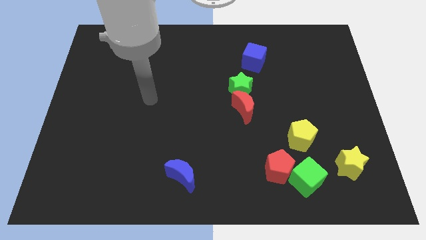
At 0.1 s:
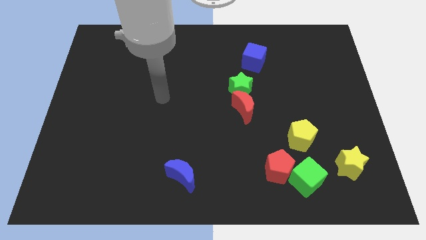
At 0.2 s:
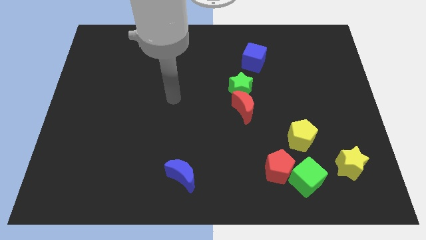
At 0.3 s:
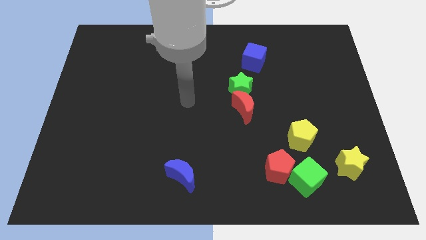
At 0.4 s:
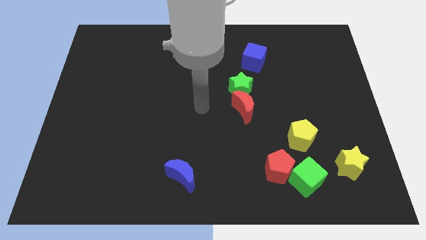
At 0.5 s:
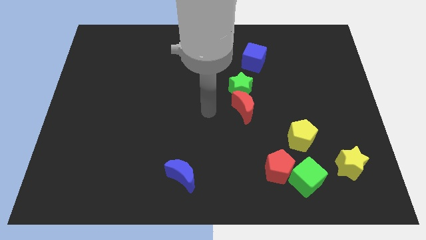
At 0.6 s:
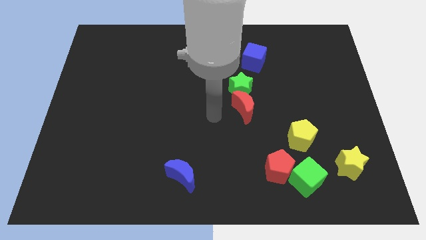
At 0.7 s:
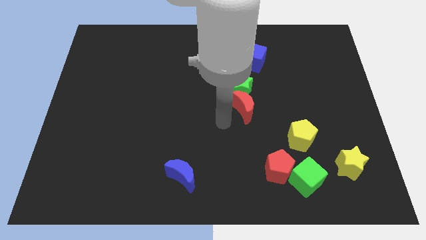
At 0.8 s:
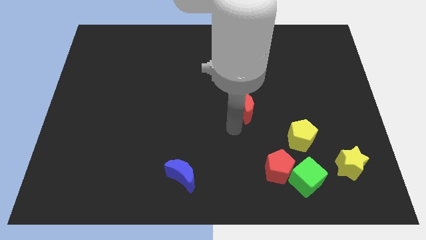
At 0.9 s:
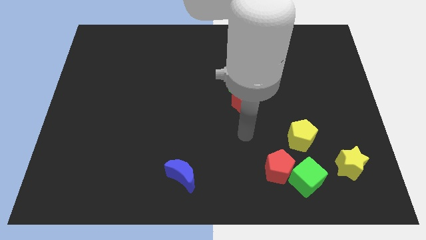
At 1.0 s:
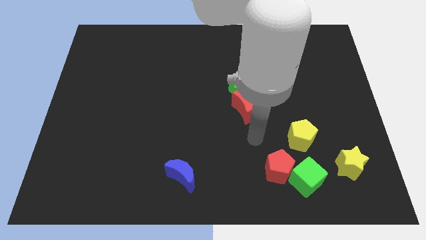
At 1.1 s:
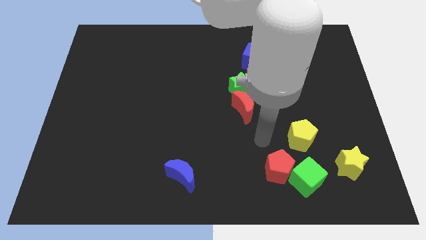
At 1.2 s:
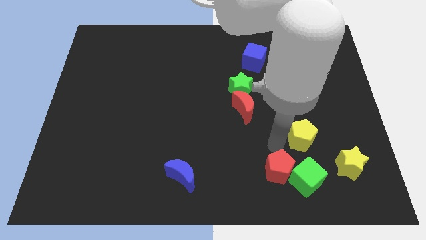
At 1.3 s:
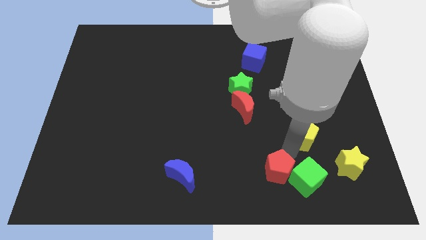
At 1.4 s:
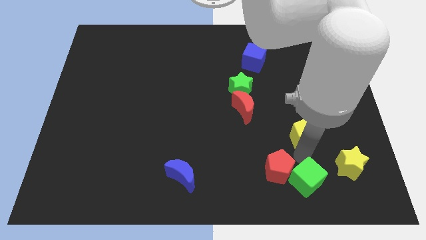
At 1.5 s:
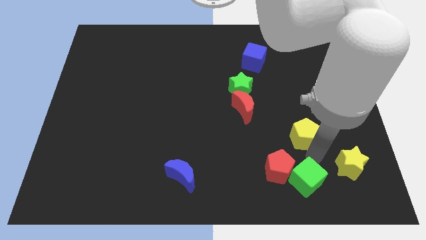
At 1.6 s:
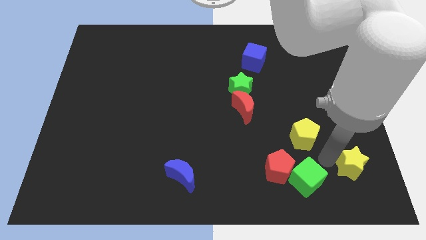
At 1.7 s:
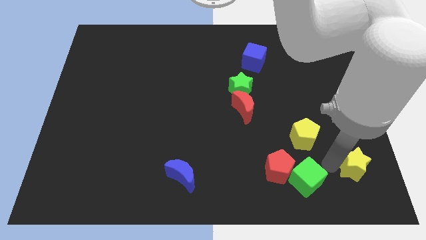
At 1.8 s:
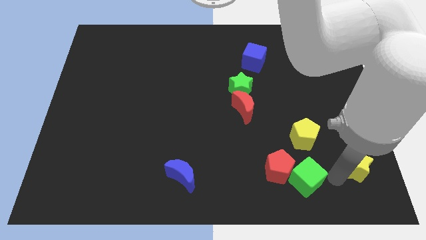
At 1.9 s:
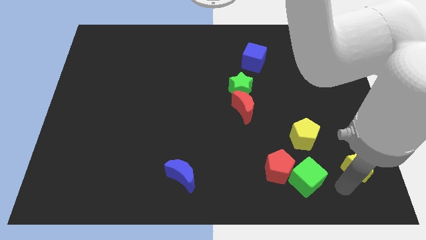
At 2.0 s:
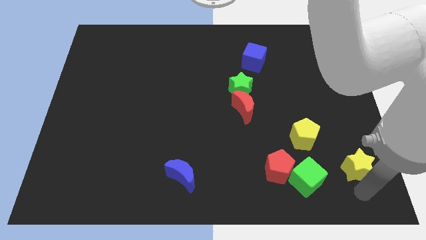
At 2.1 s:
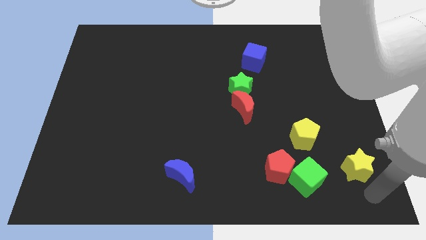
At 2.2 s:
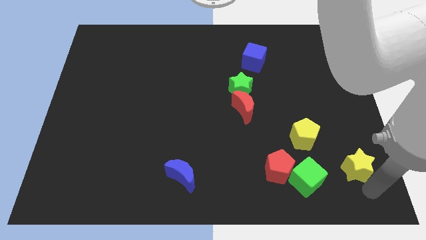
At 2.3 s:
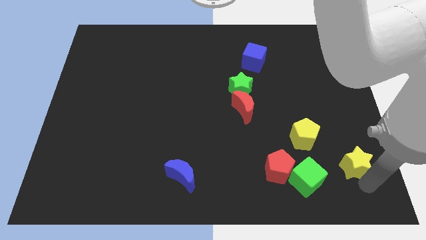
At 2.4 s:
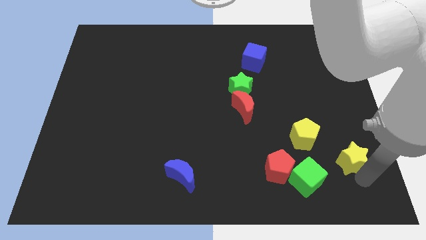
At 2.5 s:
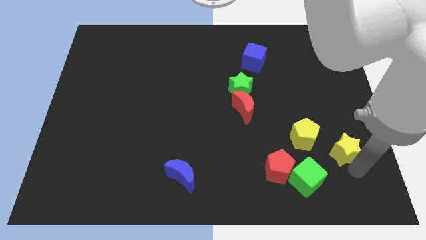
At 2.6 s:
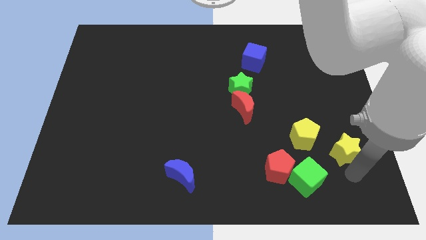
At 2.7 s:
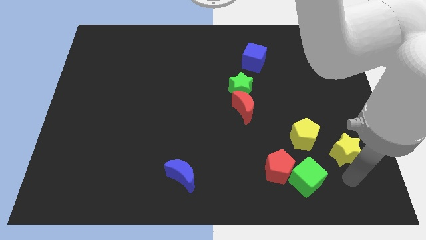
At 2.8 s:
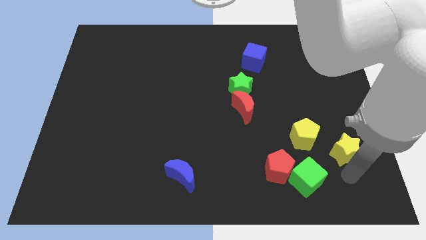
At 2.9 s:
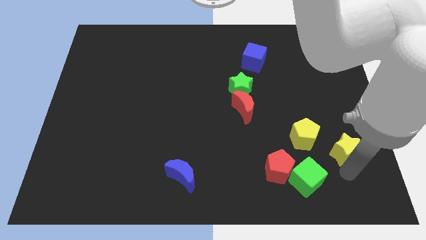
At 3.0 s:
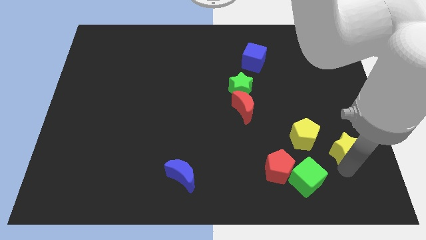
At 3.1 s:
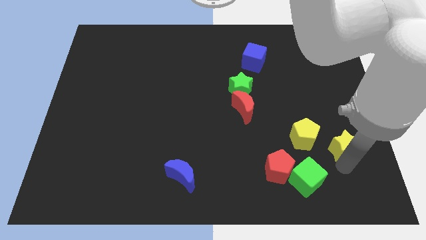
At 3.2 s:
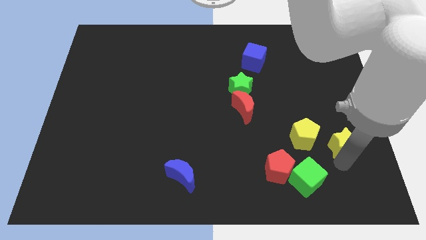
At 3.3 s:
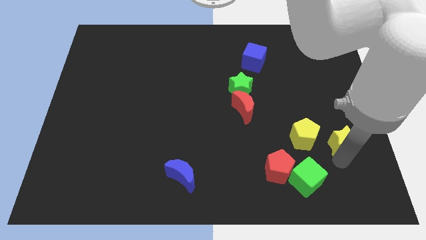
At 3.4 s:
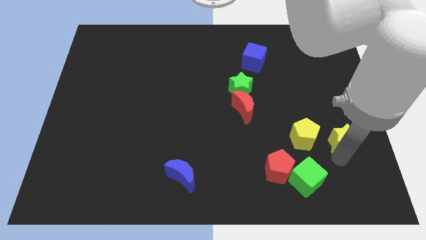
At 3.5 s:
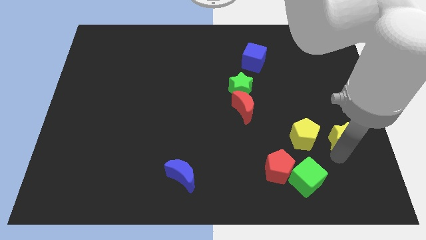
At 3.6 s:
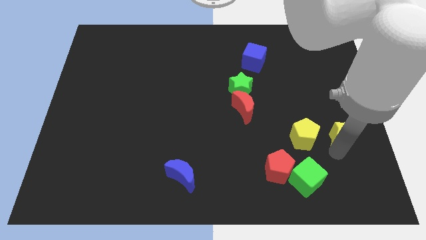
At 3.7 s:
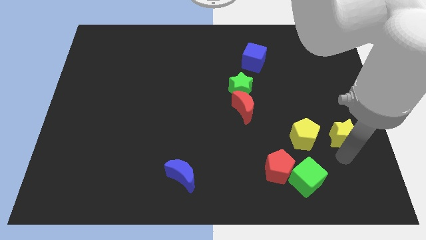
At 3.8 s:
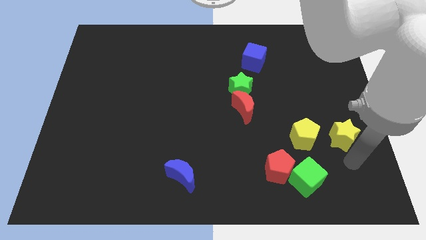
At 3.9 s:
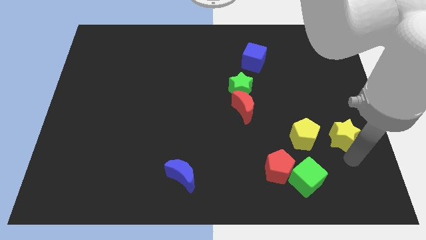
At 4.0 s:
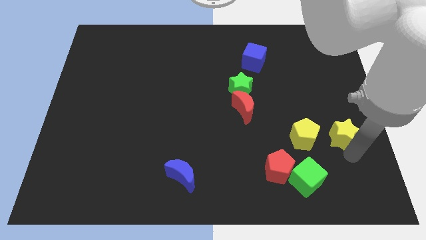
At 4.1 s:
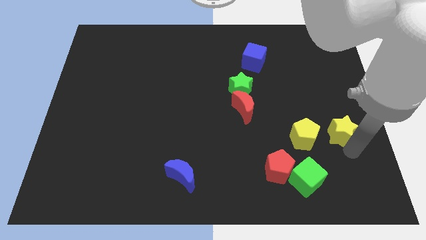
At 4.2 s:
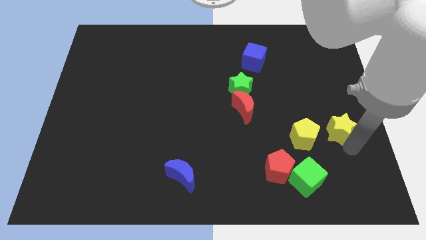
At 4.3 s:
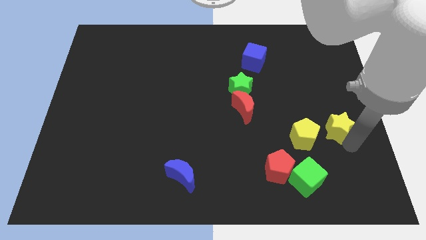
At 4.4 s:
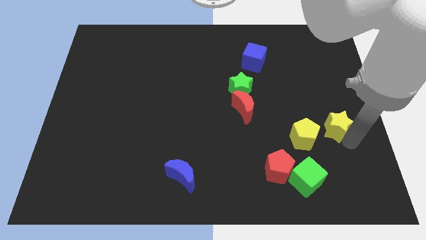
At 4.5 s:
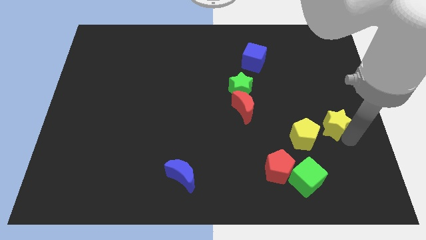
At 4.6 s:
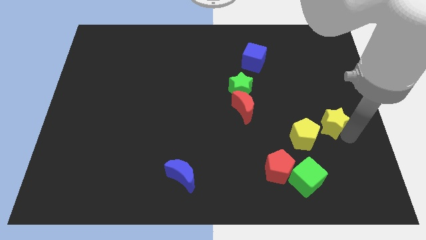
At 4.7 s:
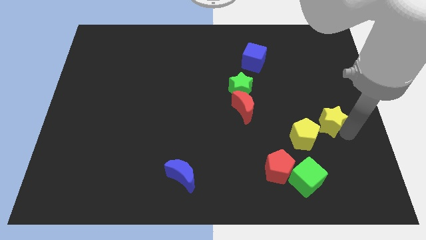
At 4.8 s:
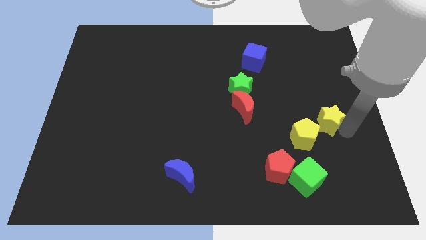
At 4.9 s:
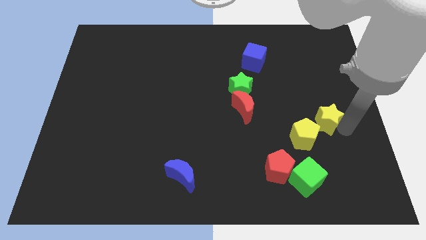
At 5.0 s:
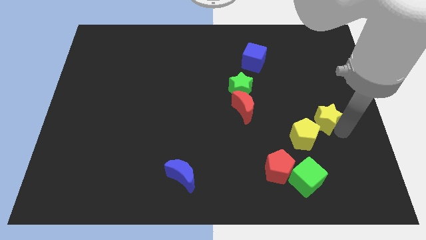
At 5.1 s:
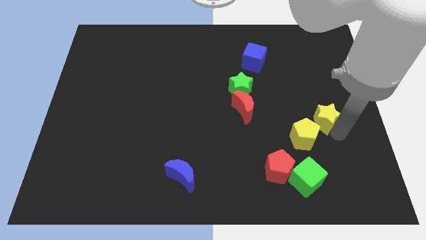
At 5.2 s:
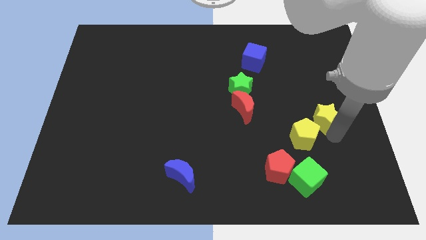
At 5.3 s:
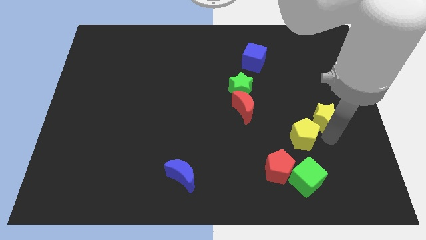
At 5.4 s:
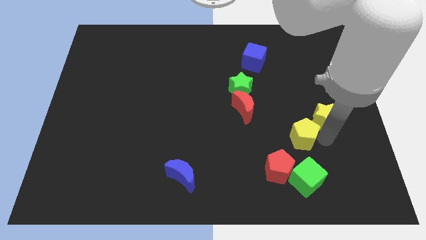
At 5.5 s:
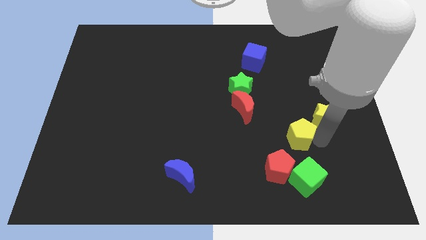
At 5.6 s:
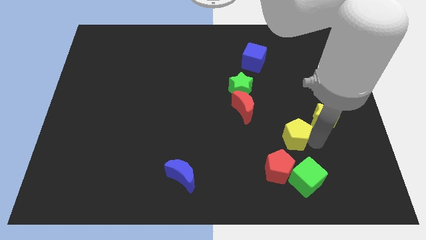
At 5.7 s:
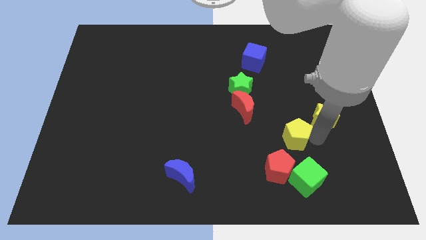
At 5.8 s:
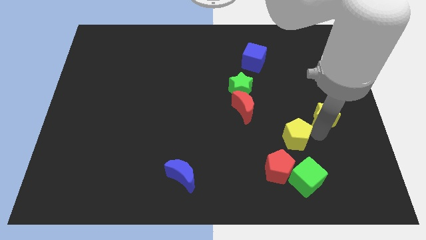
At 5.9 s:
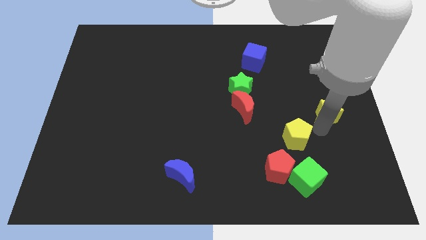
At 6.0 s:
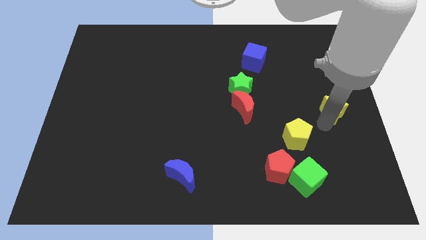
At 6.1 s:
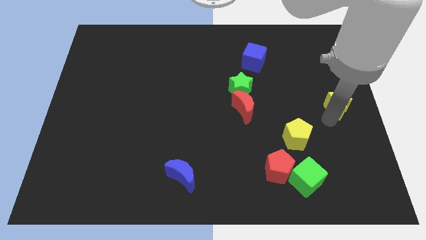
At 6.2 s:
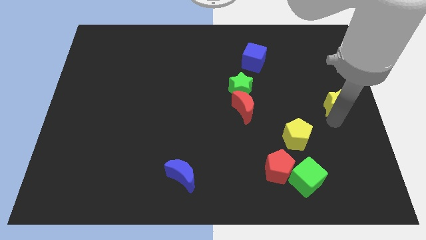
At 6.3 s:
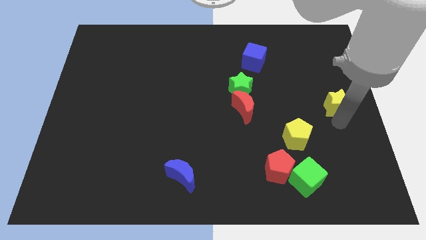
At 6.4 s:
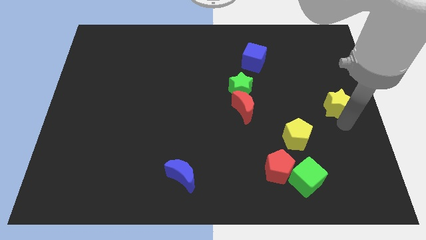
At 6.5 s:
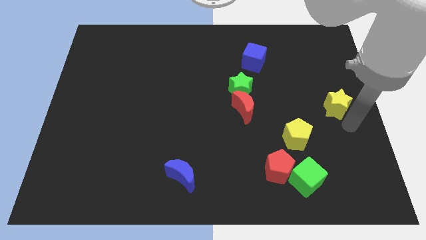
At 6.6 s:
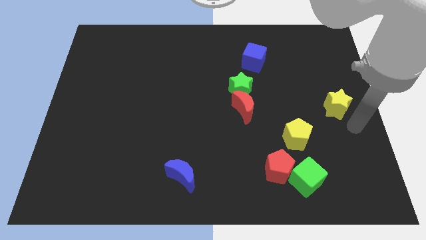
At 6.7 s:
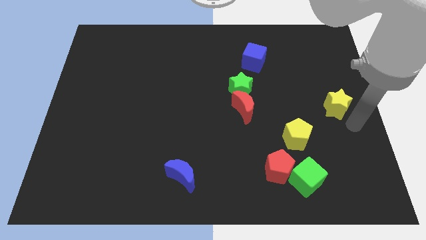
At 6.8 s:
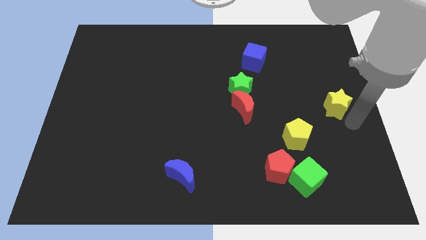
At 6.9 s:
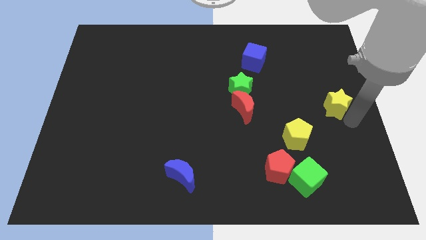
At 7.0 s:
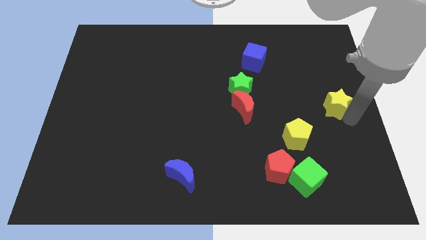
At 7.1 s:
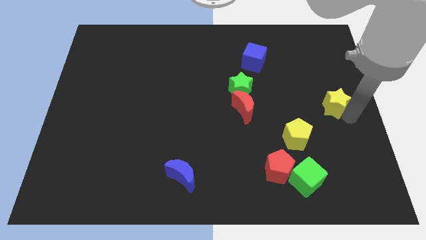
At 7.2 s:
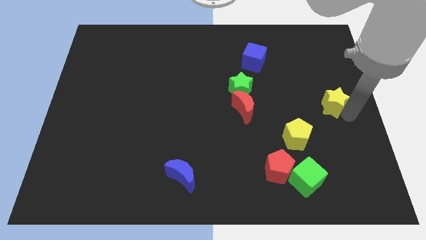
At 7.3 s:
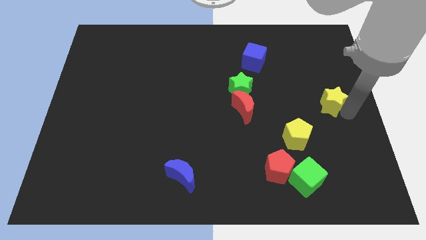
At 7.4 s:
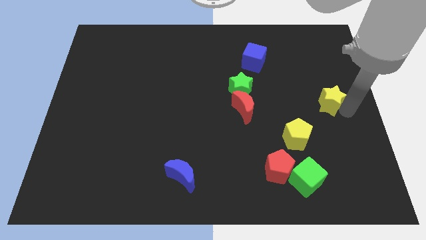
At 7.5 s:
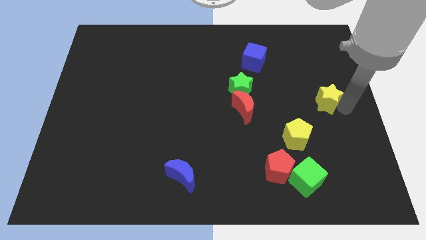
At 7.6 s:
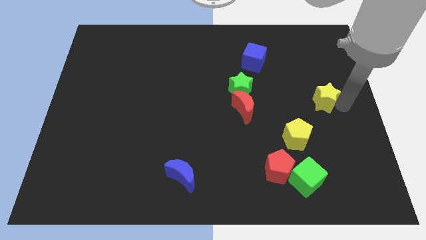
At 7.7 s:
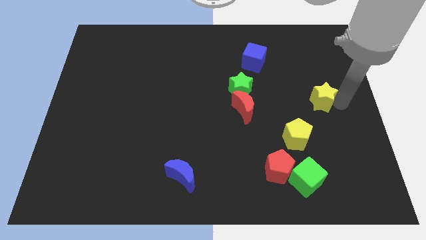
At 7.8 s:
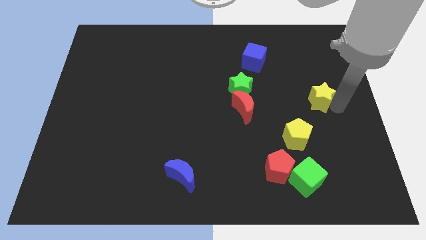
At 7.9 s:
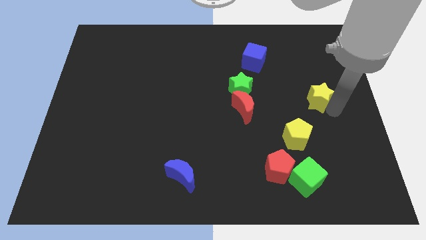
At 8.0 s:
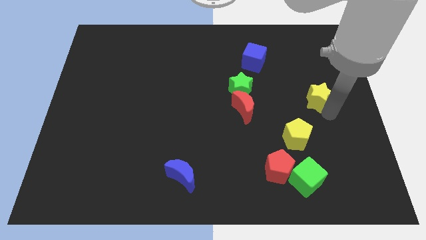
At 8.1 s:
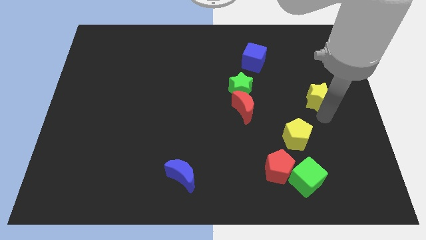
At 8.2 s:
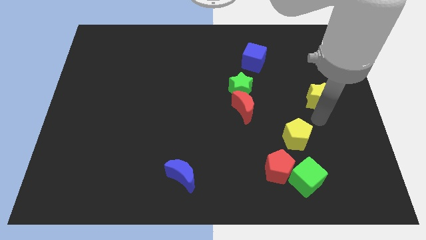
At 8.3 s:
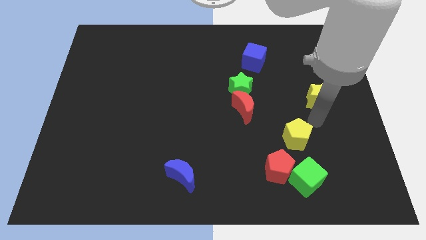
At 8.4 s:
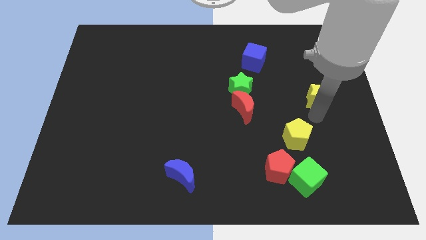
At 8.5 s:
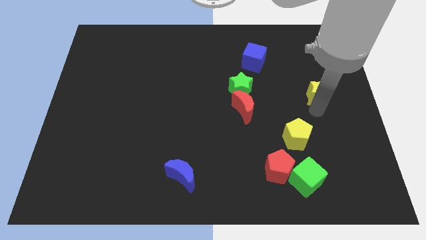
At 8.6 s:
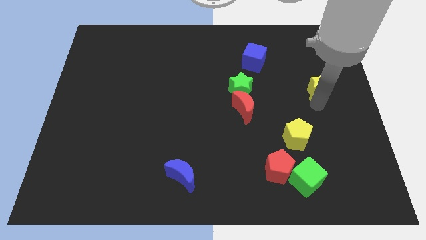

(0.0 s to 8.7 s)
move the yellow star upwards

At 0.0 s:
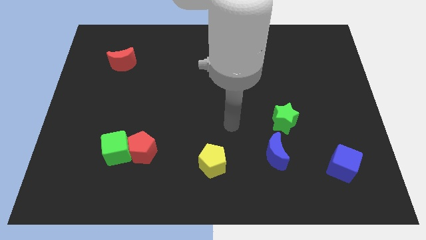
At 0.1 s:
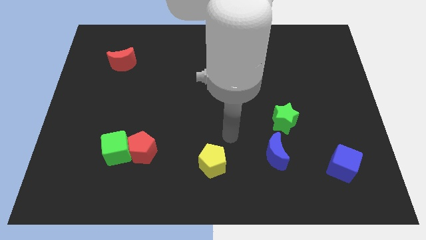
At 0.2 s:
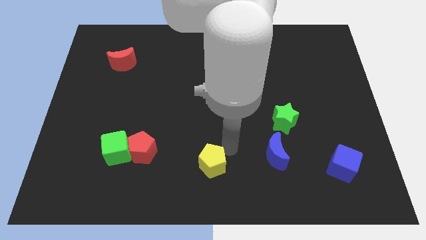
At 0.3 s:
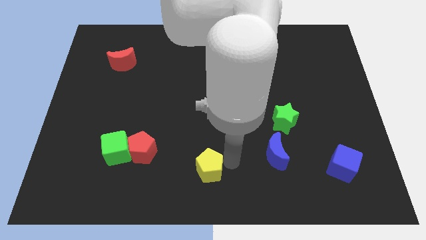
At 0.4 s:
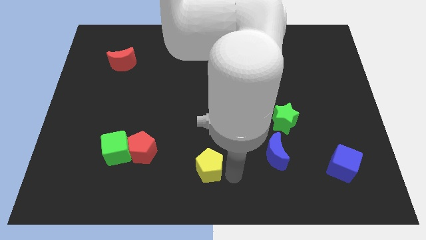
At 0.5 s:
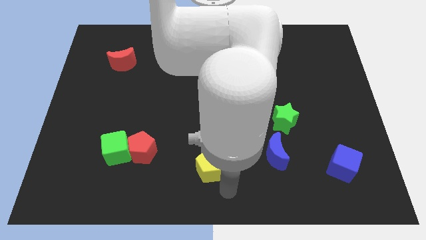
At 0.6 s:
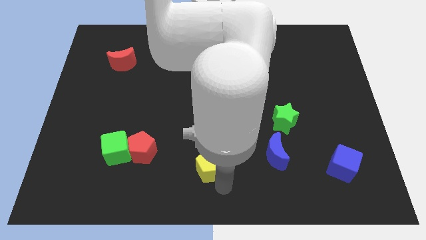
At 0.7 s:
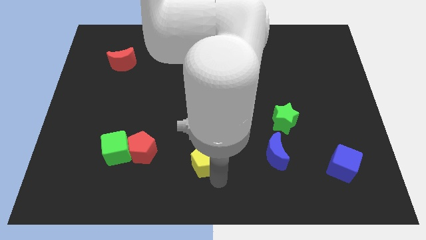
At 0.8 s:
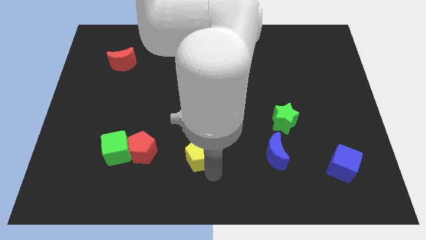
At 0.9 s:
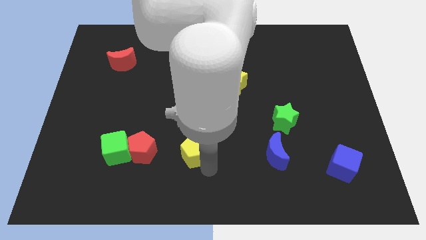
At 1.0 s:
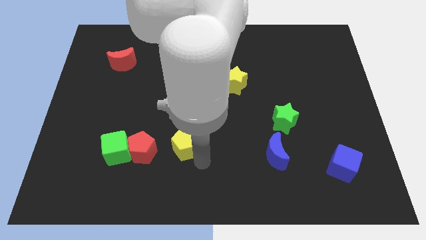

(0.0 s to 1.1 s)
move the yellow pentagon a bit up and then left
